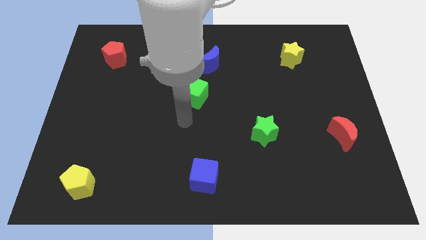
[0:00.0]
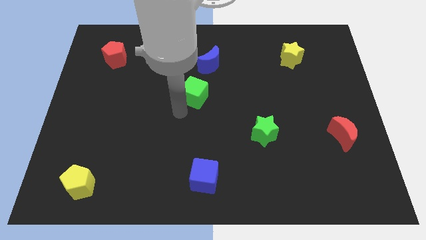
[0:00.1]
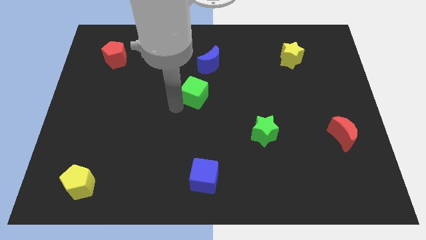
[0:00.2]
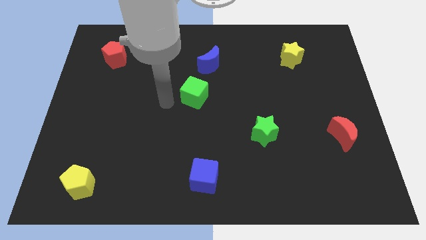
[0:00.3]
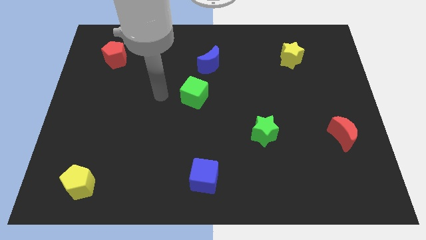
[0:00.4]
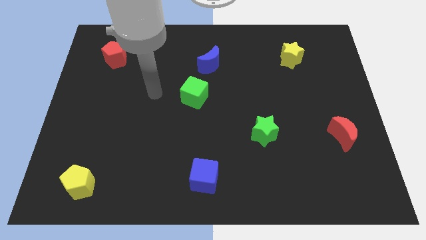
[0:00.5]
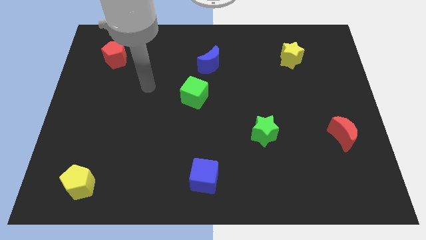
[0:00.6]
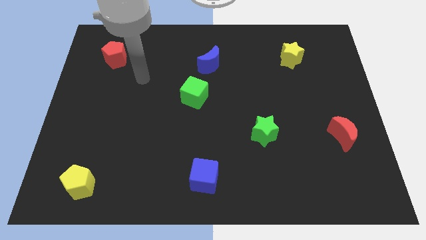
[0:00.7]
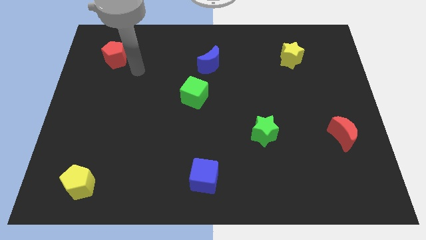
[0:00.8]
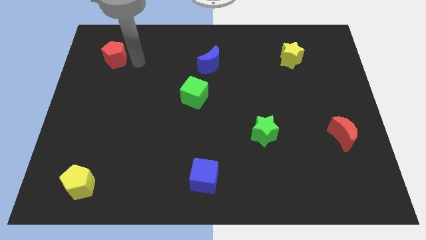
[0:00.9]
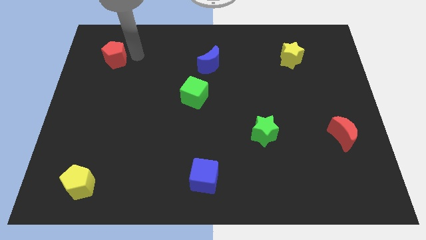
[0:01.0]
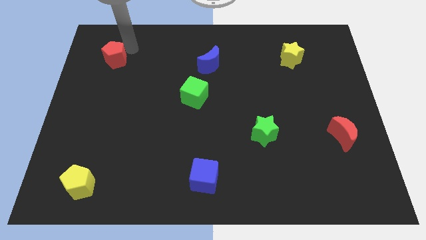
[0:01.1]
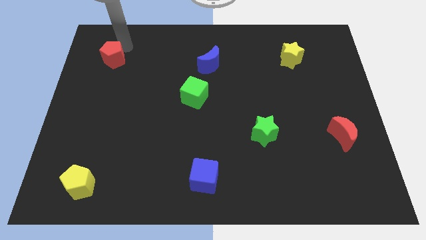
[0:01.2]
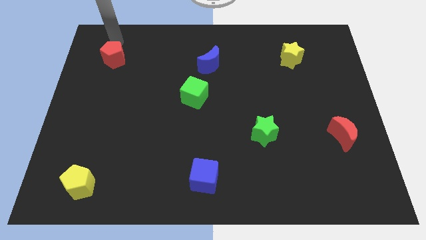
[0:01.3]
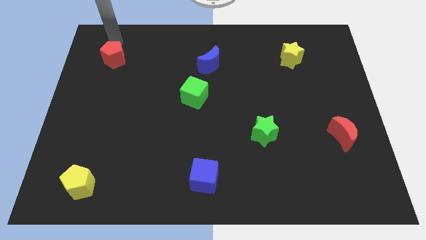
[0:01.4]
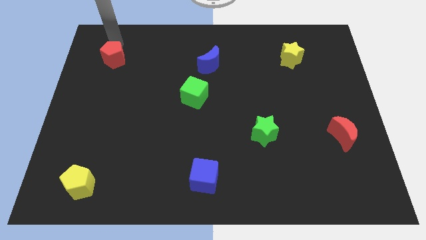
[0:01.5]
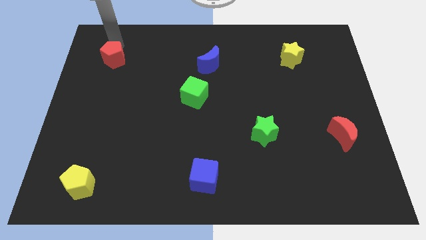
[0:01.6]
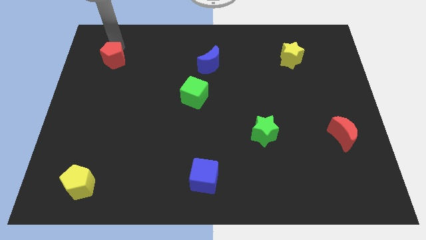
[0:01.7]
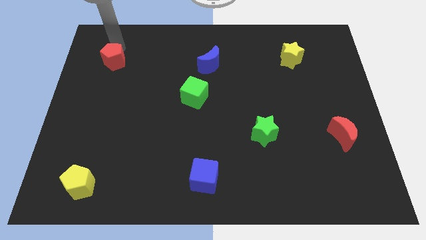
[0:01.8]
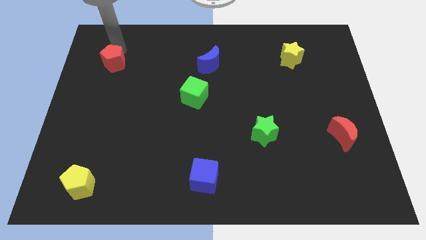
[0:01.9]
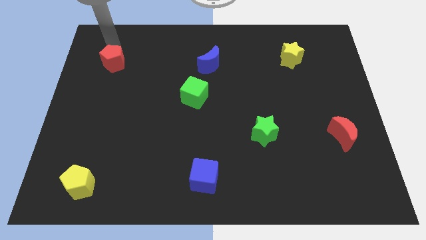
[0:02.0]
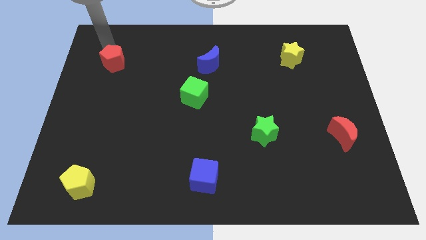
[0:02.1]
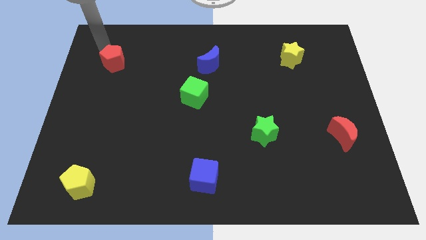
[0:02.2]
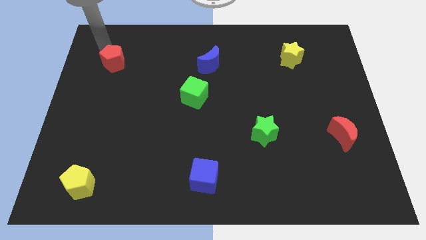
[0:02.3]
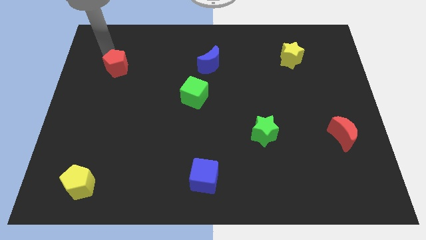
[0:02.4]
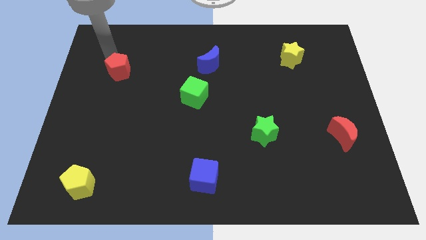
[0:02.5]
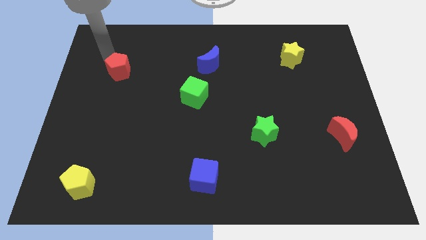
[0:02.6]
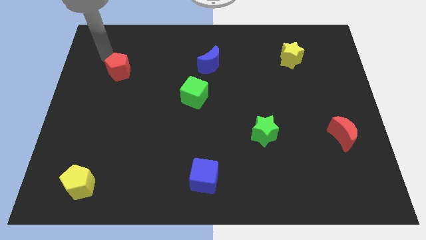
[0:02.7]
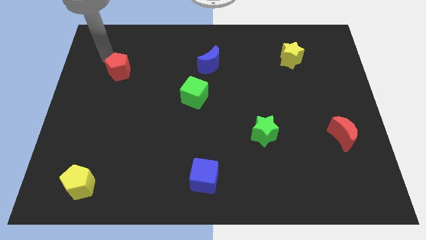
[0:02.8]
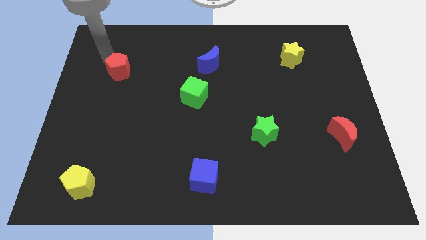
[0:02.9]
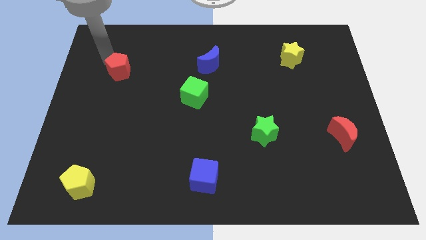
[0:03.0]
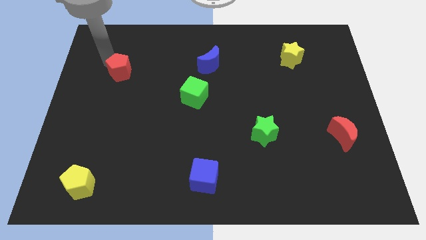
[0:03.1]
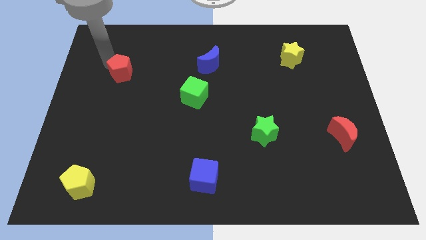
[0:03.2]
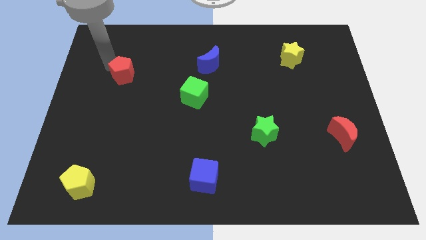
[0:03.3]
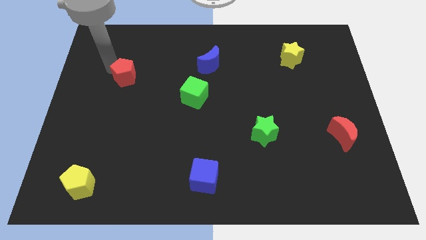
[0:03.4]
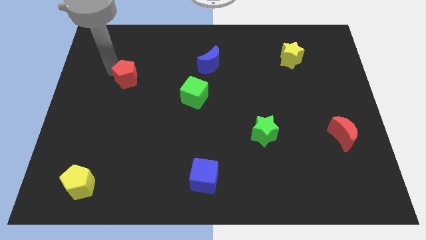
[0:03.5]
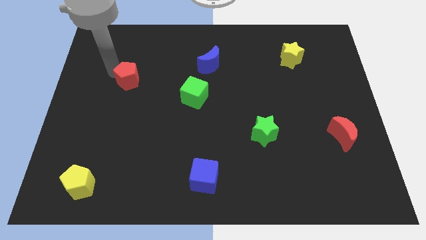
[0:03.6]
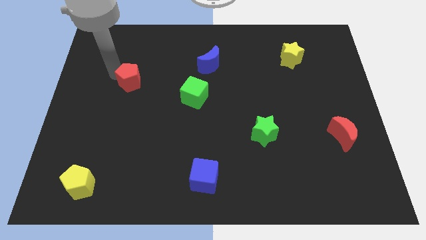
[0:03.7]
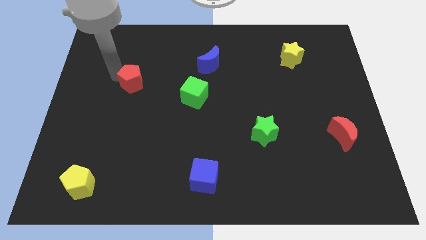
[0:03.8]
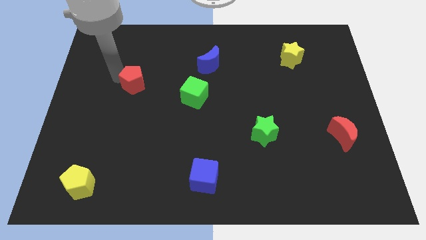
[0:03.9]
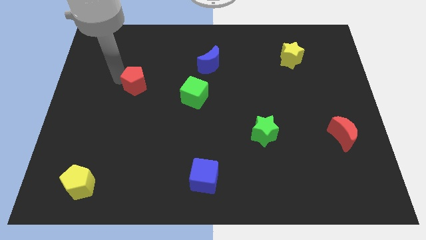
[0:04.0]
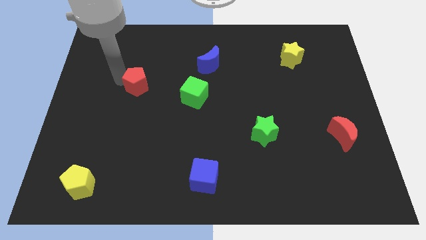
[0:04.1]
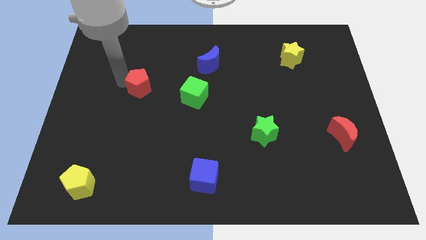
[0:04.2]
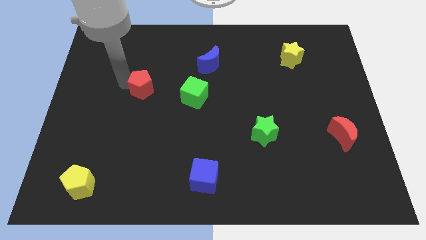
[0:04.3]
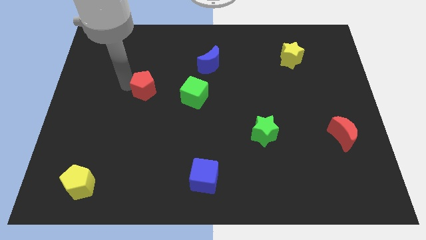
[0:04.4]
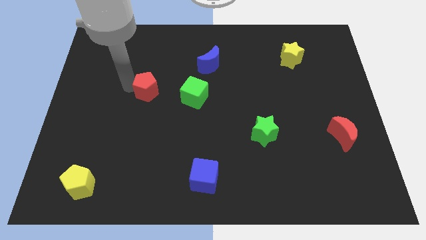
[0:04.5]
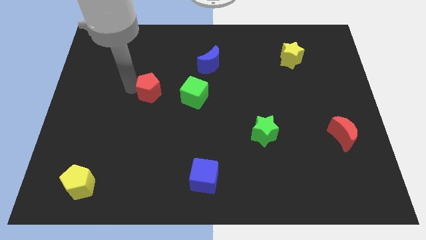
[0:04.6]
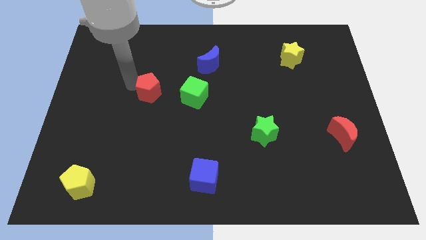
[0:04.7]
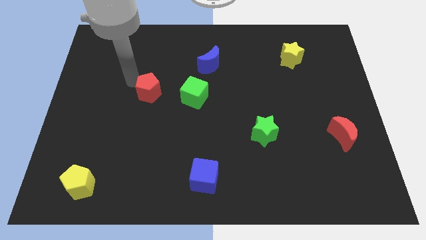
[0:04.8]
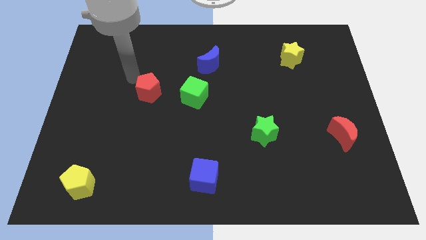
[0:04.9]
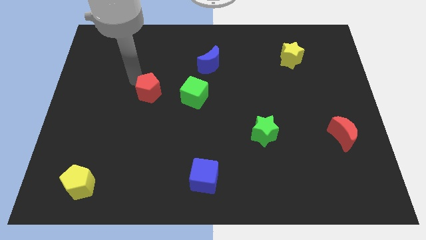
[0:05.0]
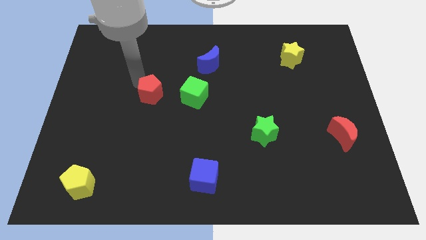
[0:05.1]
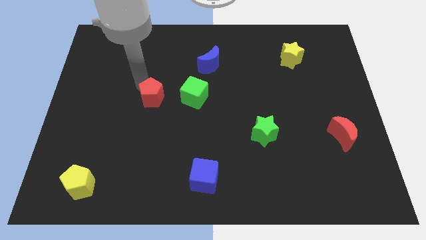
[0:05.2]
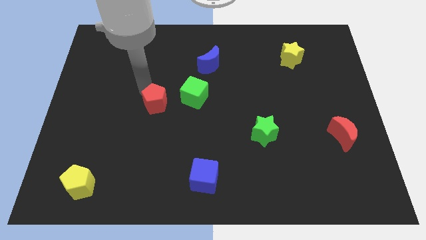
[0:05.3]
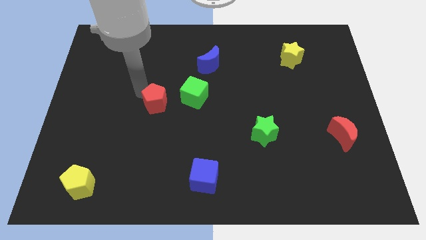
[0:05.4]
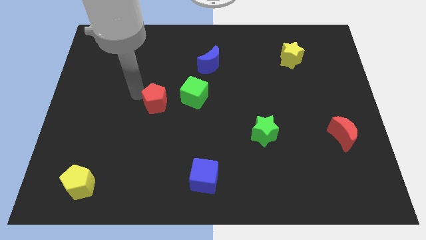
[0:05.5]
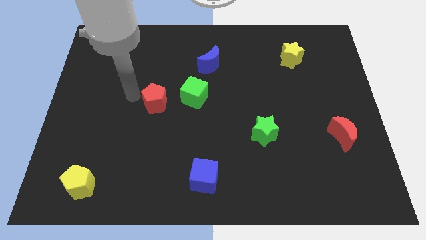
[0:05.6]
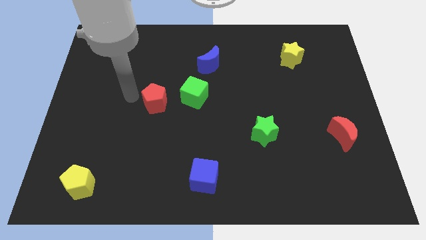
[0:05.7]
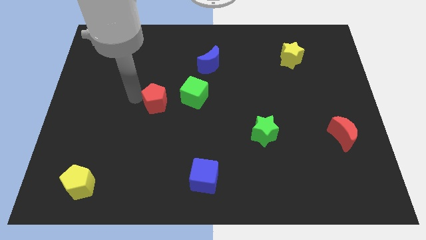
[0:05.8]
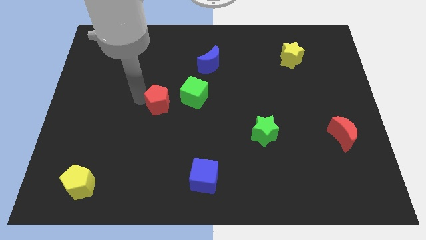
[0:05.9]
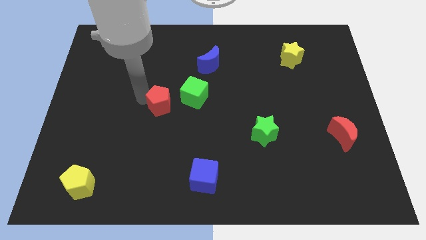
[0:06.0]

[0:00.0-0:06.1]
push the red pentagon to the middle
